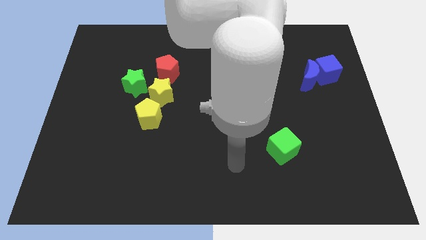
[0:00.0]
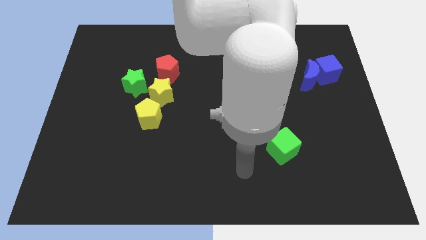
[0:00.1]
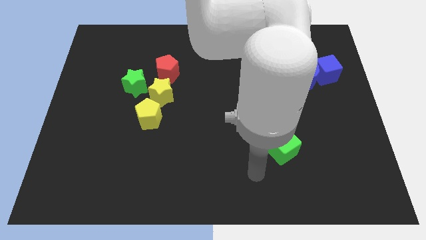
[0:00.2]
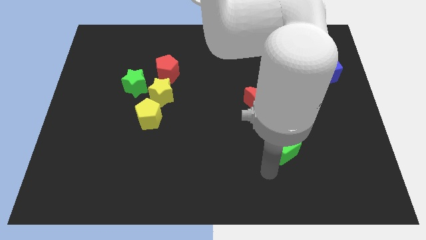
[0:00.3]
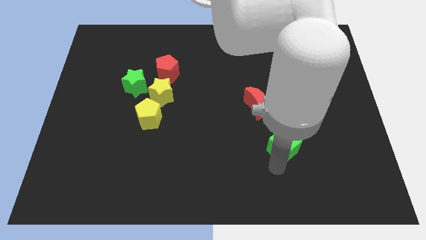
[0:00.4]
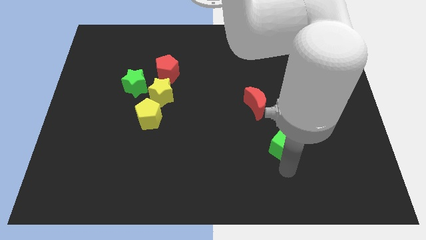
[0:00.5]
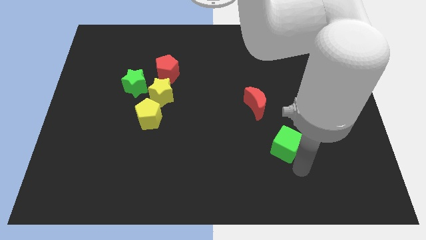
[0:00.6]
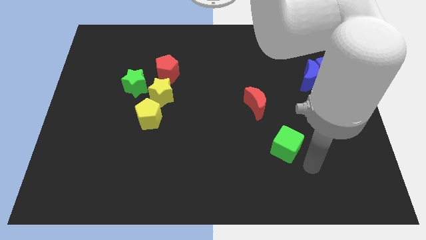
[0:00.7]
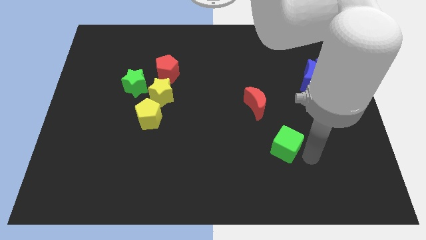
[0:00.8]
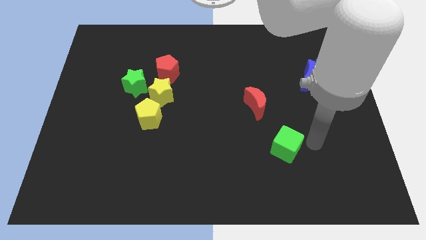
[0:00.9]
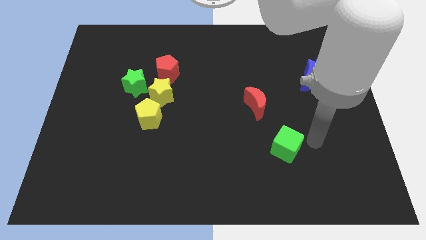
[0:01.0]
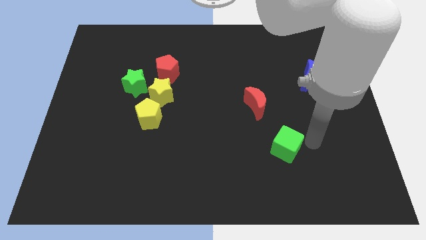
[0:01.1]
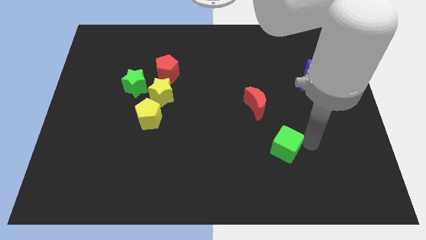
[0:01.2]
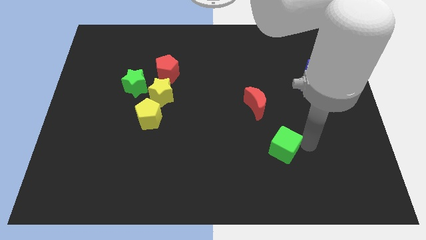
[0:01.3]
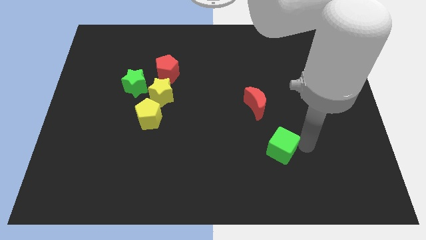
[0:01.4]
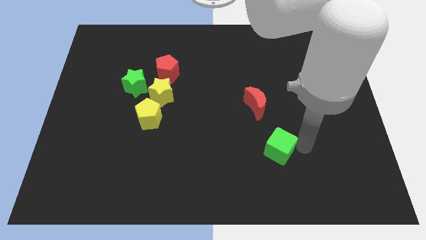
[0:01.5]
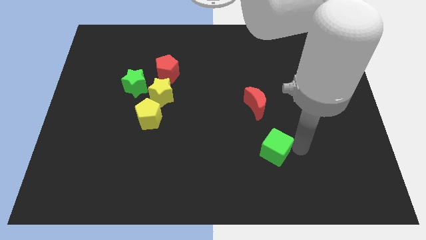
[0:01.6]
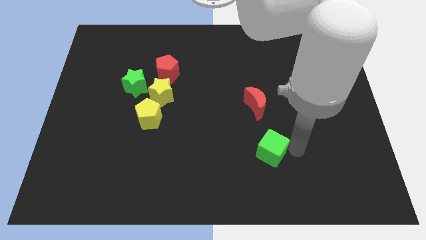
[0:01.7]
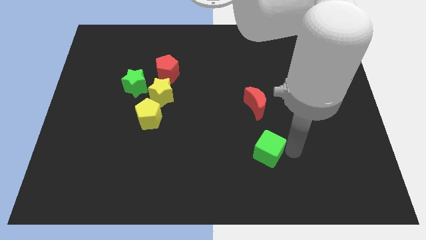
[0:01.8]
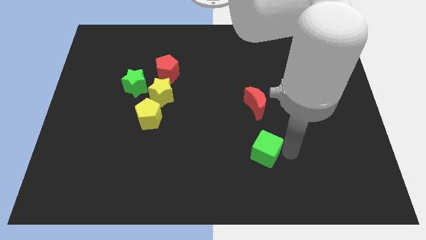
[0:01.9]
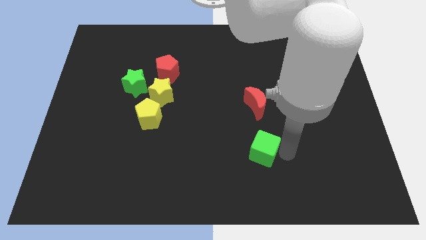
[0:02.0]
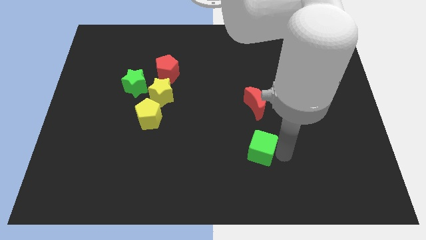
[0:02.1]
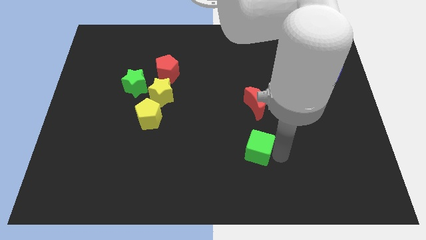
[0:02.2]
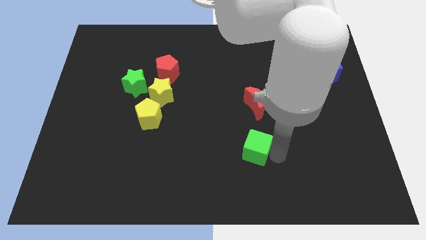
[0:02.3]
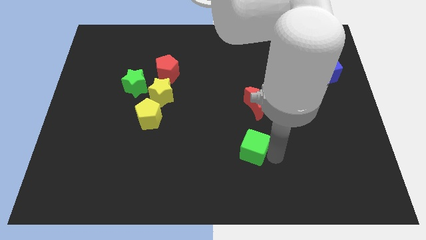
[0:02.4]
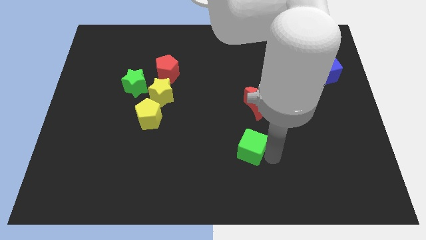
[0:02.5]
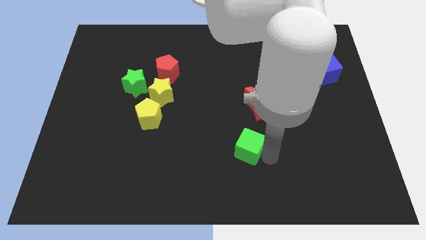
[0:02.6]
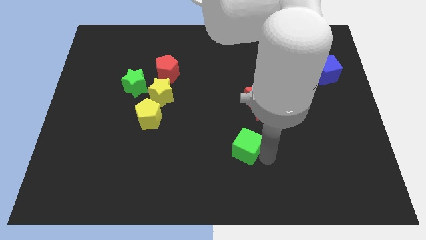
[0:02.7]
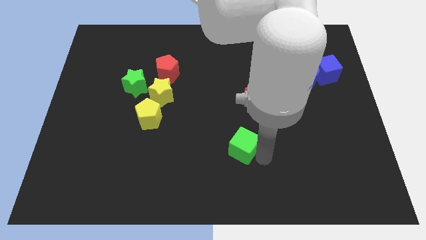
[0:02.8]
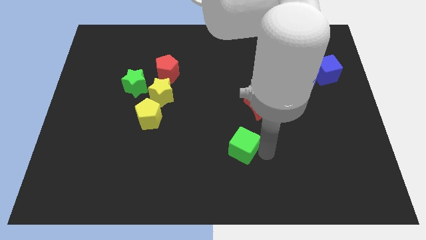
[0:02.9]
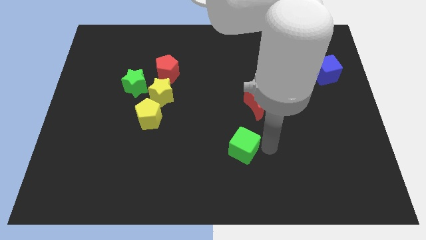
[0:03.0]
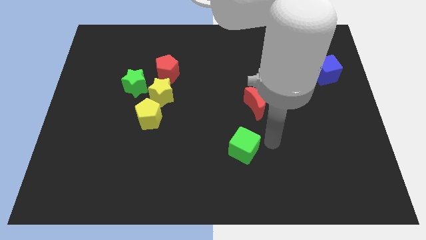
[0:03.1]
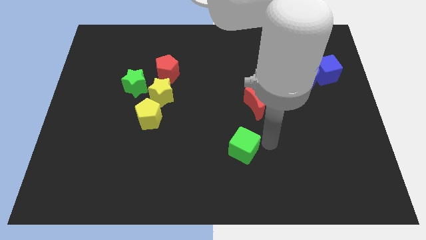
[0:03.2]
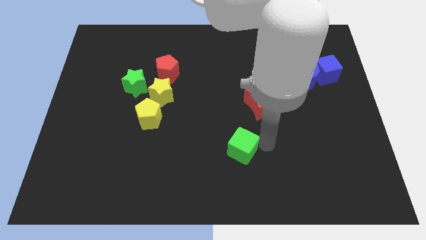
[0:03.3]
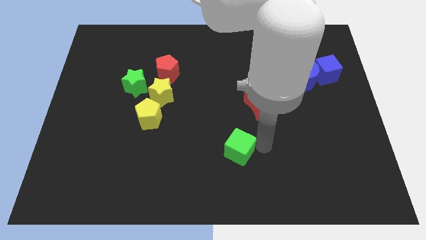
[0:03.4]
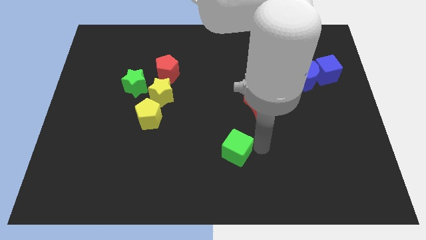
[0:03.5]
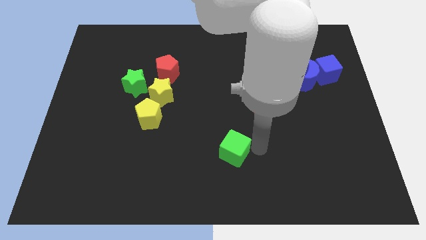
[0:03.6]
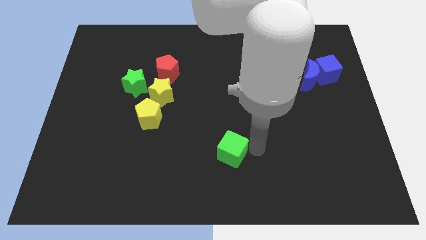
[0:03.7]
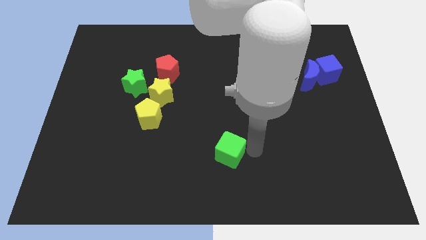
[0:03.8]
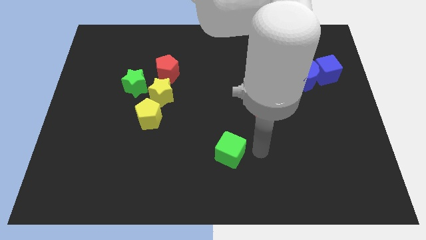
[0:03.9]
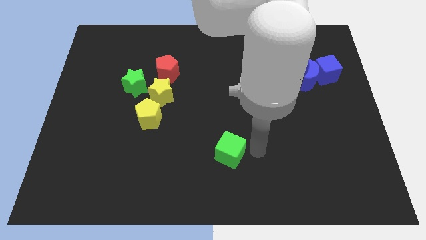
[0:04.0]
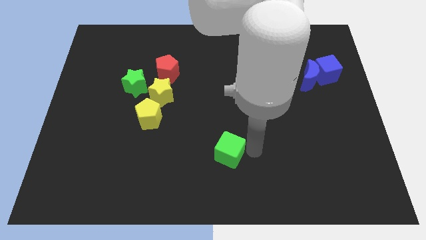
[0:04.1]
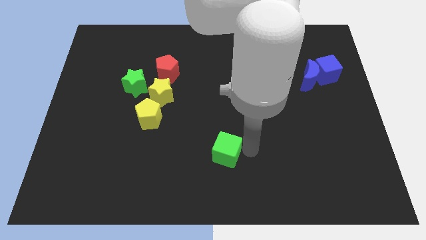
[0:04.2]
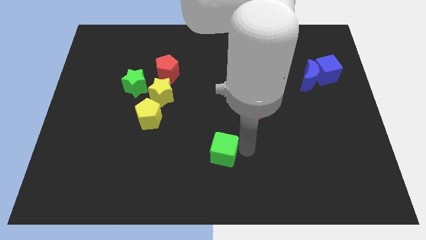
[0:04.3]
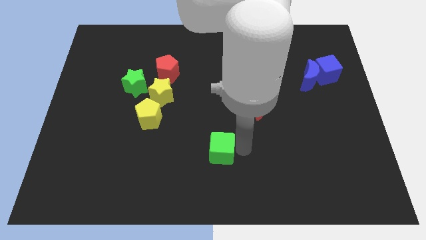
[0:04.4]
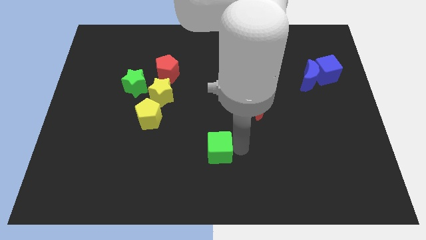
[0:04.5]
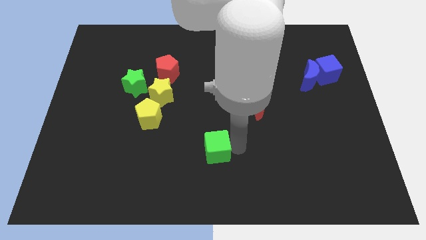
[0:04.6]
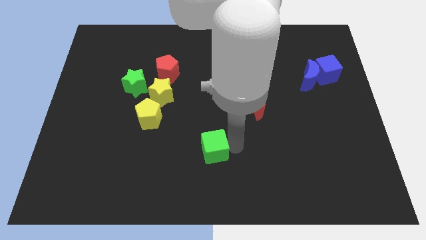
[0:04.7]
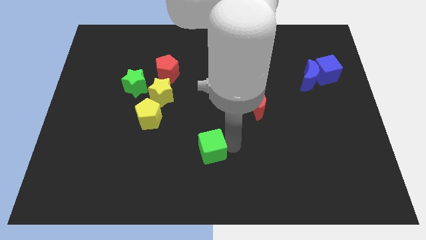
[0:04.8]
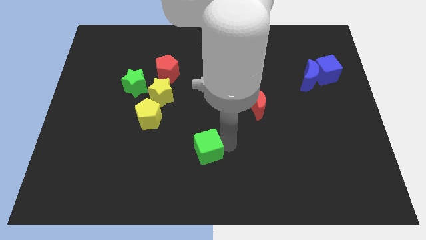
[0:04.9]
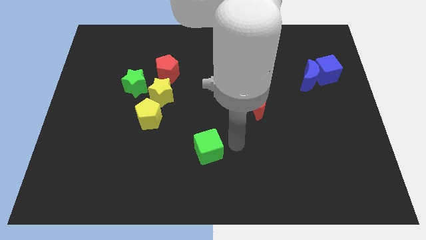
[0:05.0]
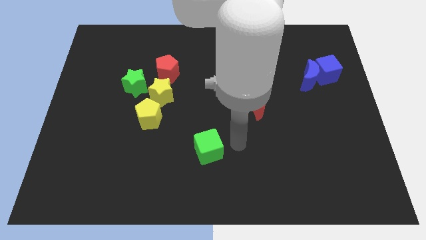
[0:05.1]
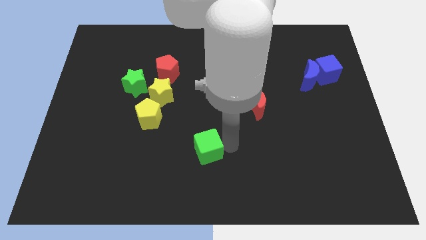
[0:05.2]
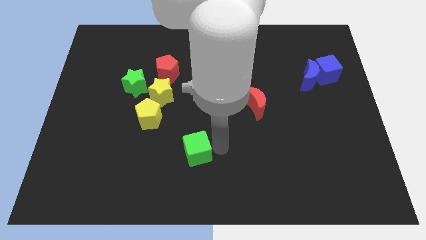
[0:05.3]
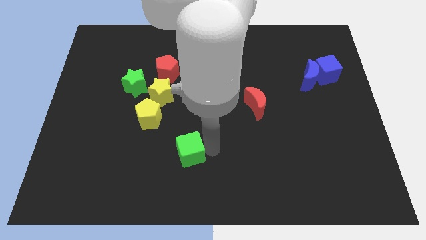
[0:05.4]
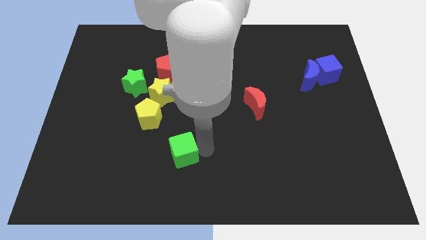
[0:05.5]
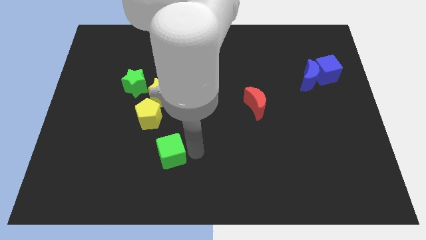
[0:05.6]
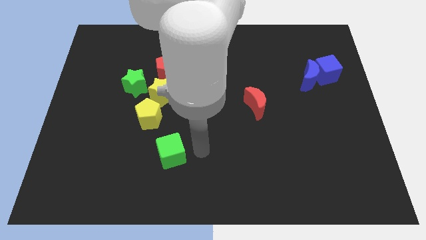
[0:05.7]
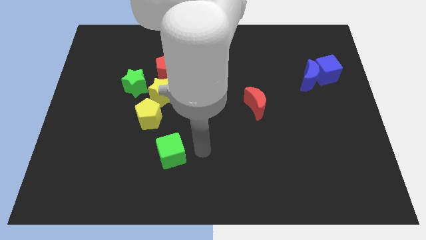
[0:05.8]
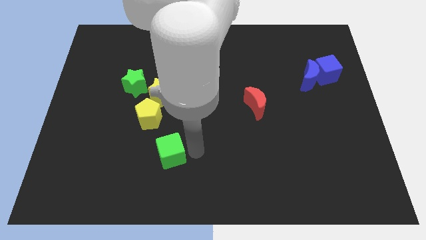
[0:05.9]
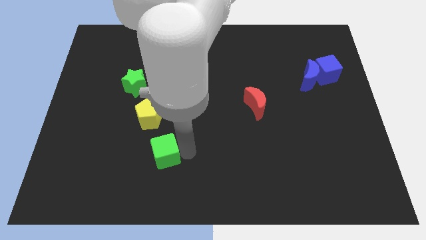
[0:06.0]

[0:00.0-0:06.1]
put the green cube to the bottom side of the yellow pentagon

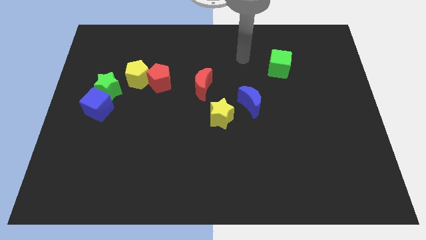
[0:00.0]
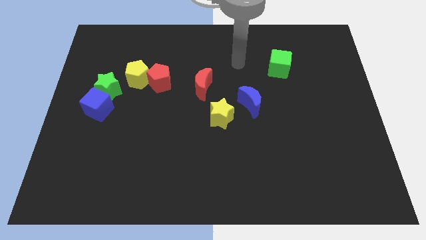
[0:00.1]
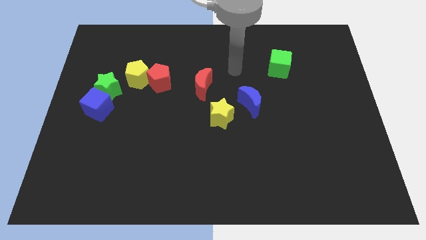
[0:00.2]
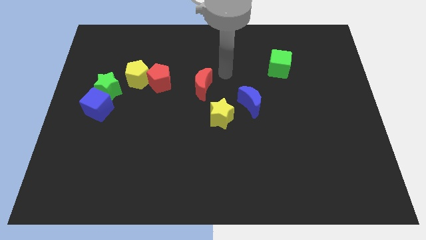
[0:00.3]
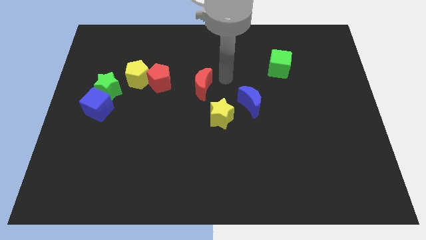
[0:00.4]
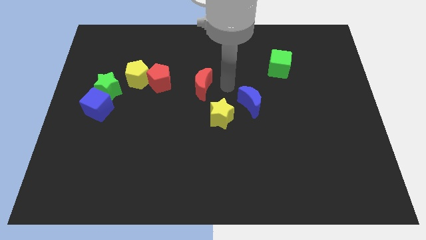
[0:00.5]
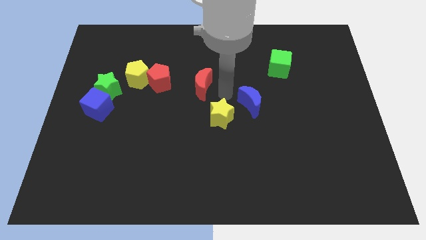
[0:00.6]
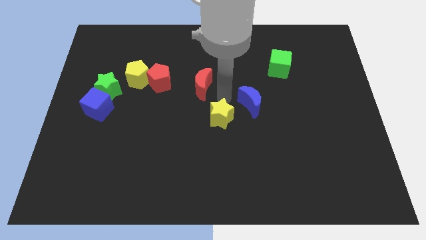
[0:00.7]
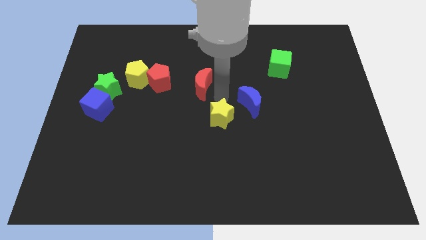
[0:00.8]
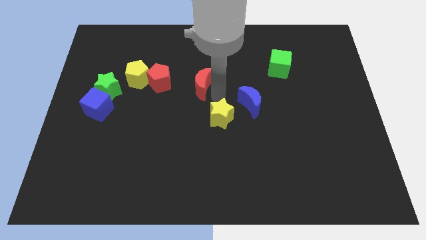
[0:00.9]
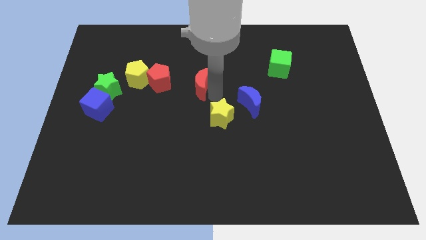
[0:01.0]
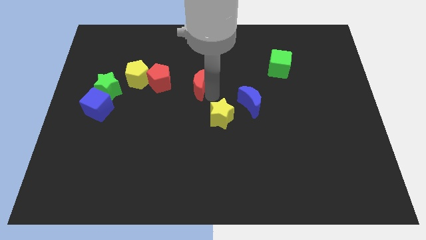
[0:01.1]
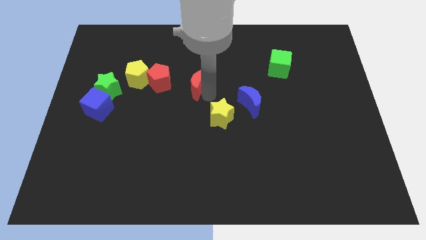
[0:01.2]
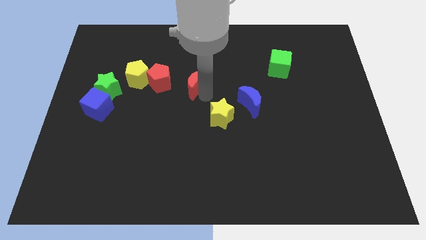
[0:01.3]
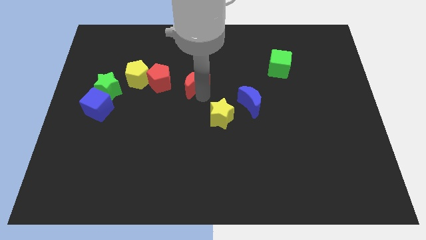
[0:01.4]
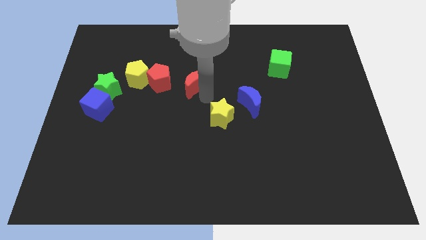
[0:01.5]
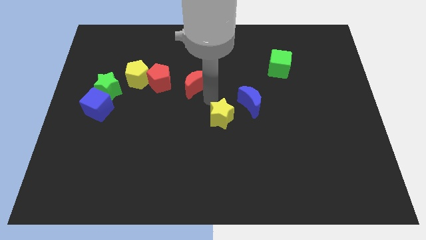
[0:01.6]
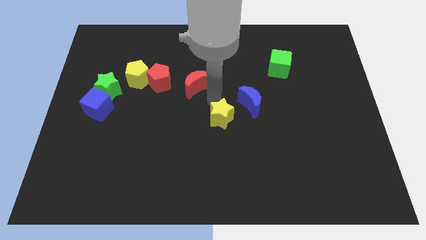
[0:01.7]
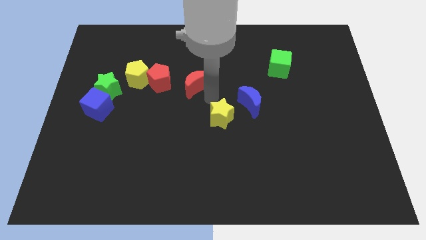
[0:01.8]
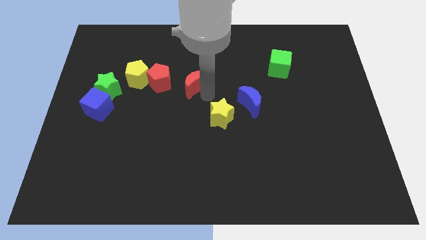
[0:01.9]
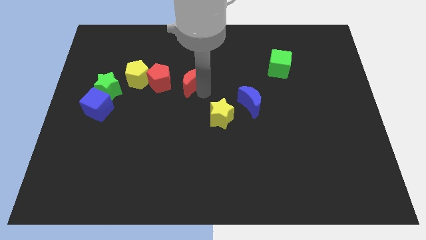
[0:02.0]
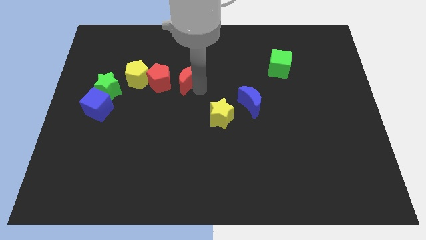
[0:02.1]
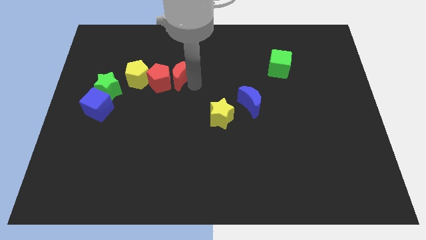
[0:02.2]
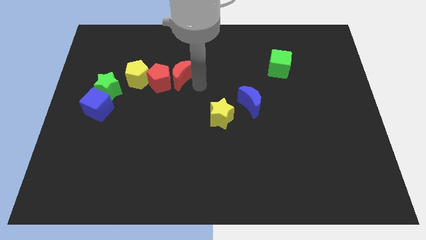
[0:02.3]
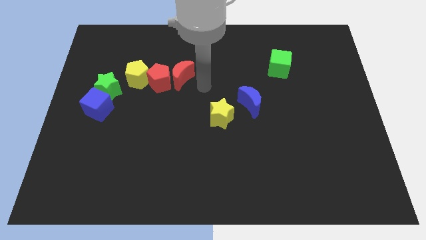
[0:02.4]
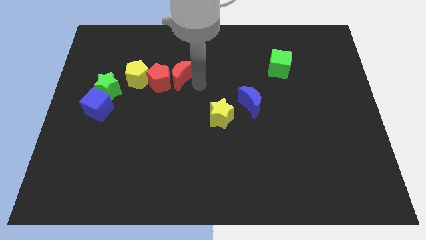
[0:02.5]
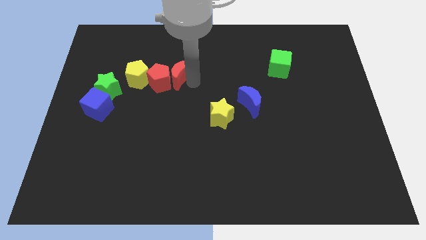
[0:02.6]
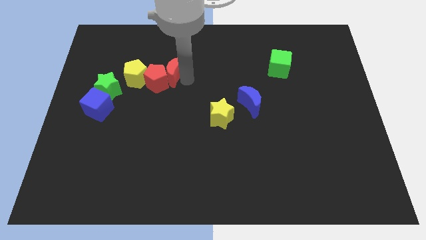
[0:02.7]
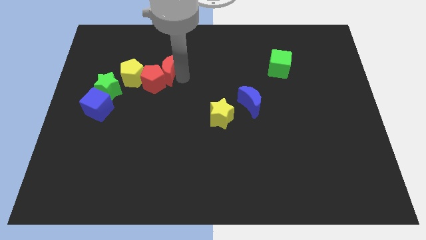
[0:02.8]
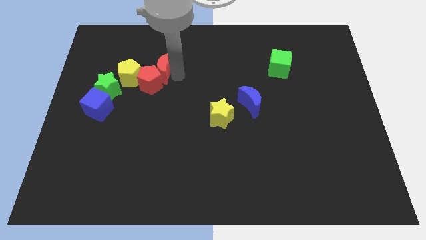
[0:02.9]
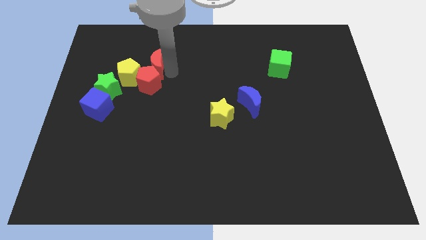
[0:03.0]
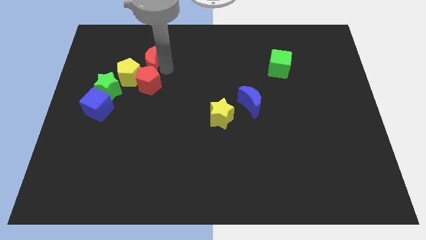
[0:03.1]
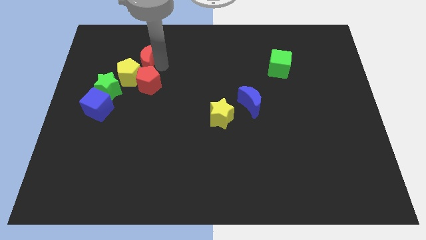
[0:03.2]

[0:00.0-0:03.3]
push the red moon diagonally up and to the left of the red pentagon
